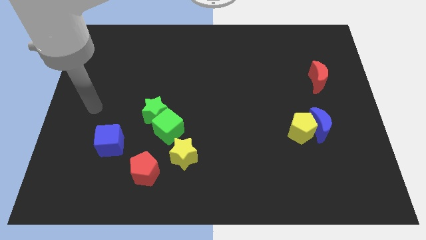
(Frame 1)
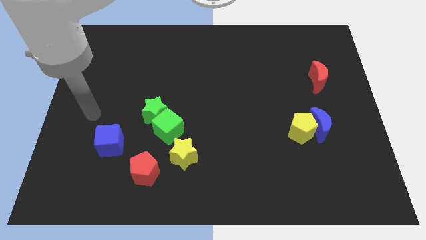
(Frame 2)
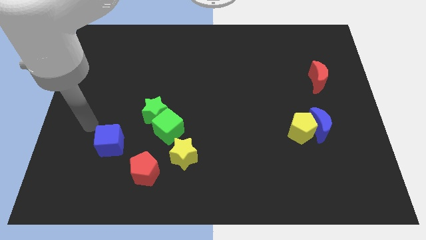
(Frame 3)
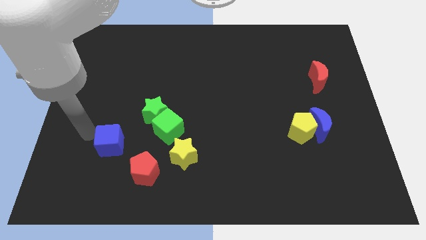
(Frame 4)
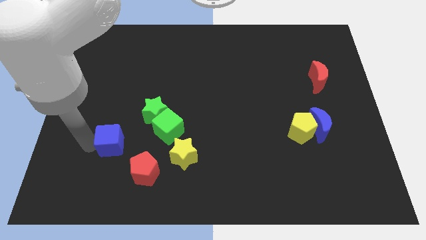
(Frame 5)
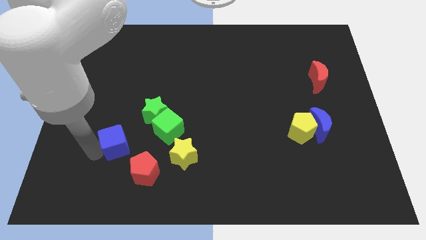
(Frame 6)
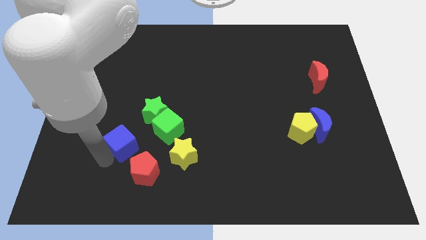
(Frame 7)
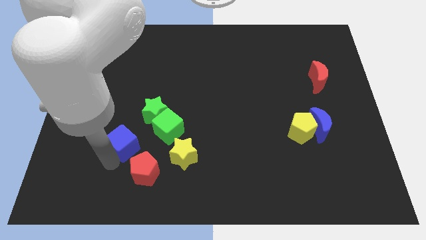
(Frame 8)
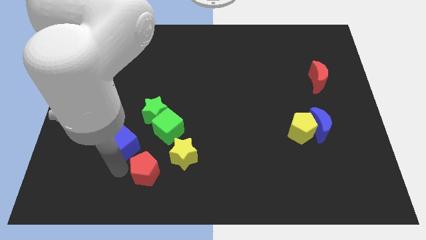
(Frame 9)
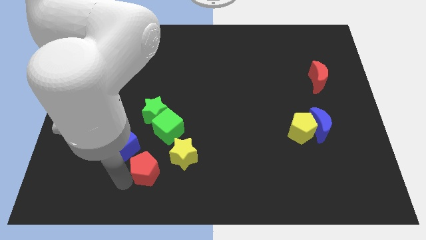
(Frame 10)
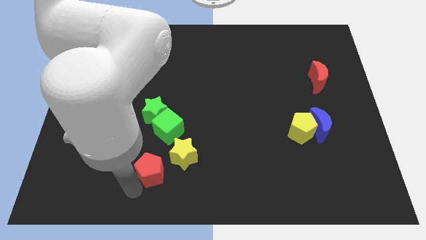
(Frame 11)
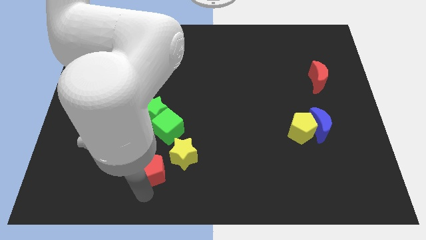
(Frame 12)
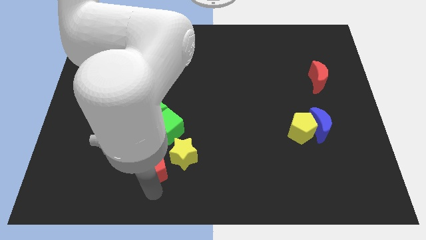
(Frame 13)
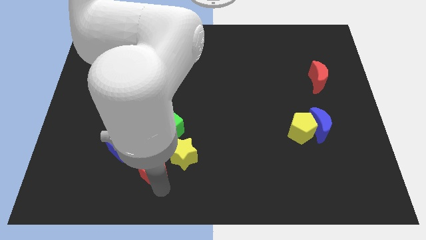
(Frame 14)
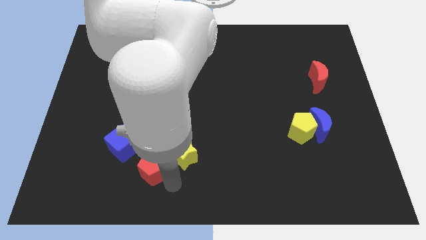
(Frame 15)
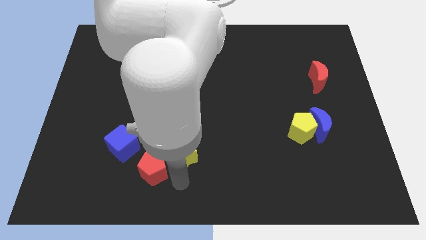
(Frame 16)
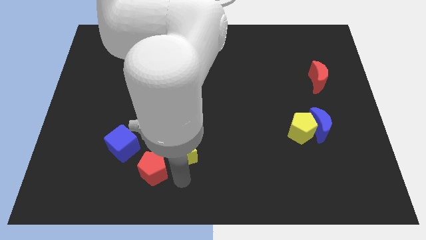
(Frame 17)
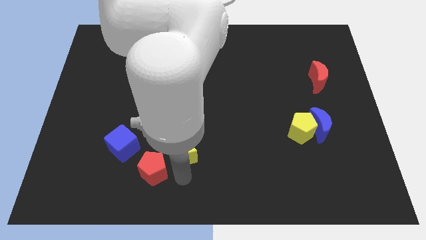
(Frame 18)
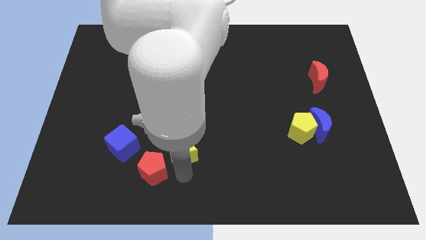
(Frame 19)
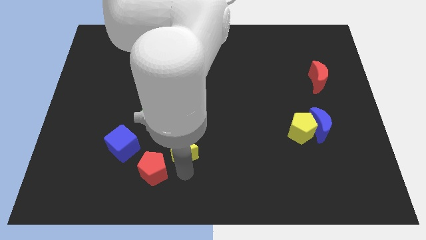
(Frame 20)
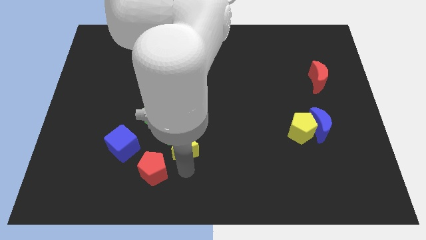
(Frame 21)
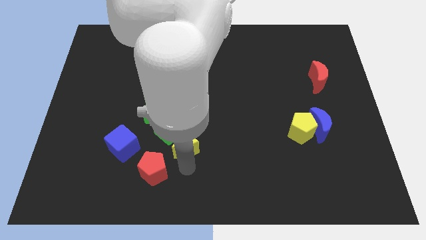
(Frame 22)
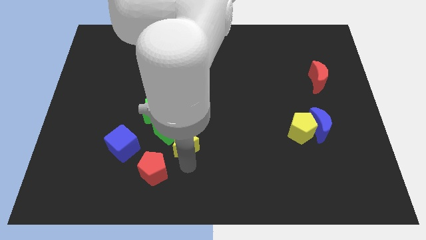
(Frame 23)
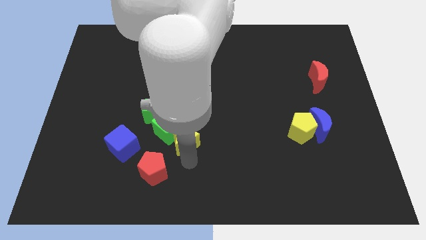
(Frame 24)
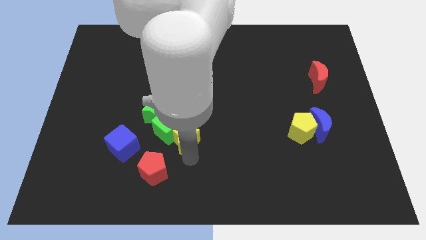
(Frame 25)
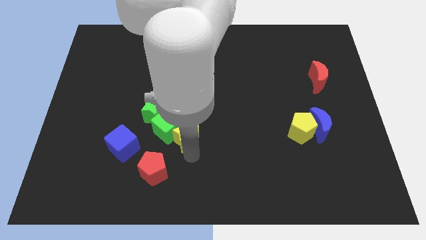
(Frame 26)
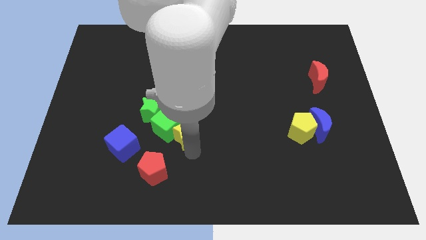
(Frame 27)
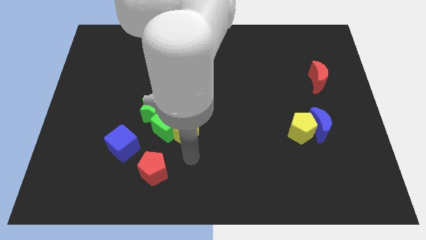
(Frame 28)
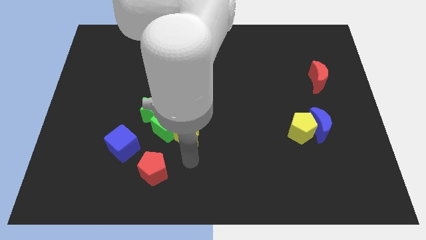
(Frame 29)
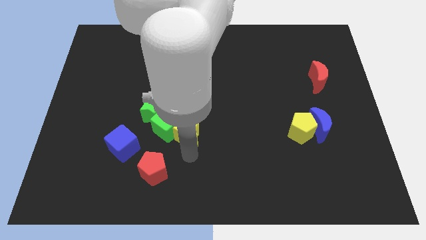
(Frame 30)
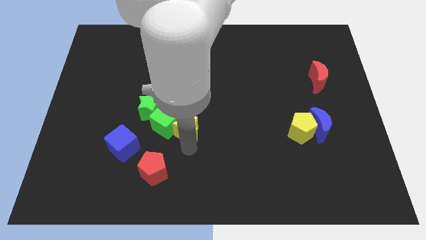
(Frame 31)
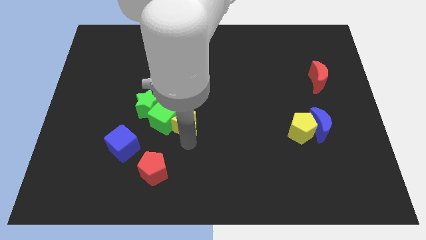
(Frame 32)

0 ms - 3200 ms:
slide the yellow star up a bit

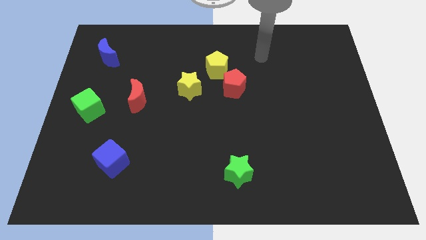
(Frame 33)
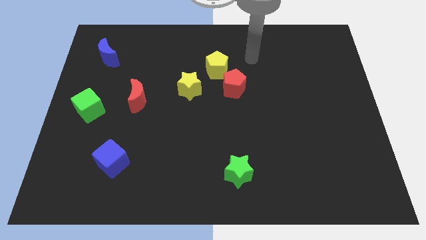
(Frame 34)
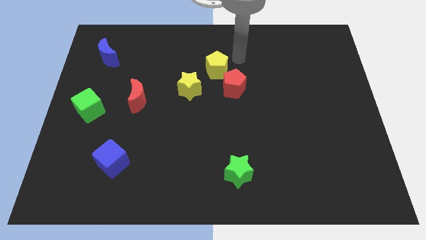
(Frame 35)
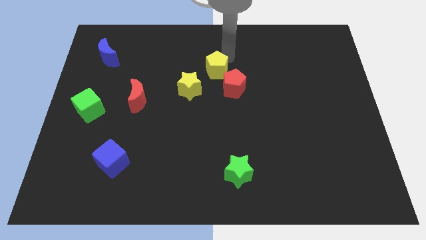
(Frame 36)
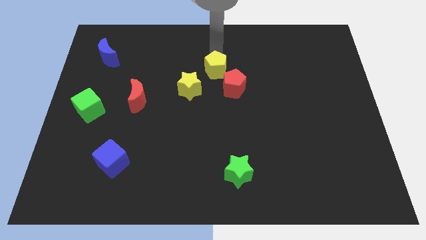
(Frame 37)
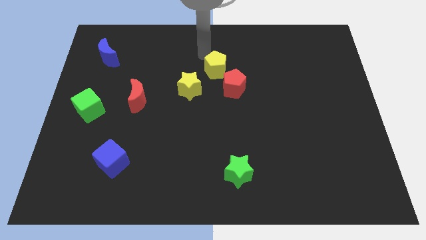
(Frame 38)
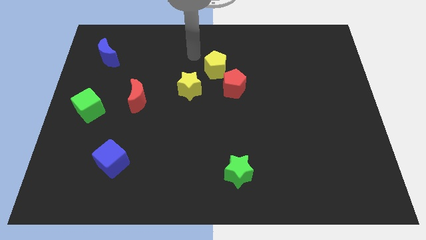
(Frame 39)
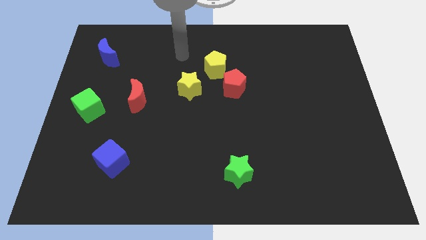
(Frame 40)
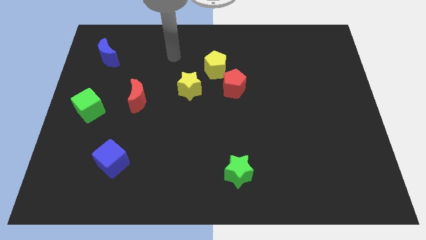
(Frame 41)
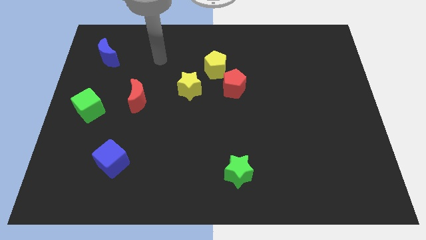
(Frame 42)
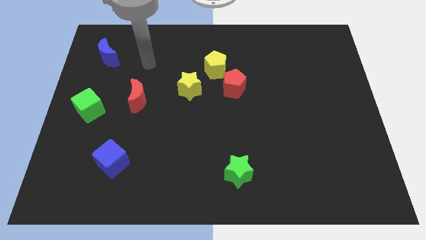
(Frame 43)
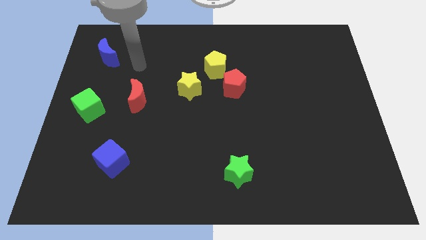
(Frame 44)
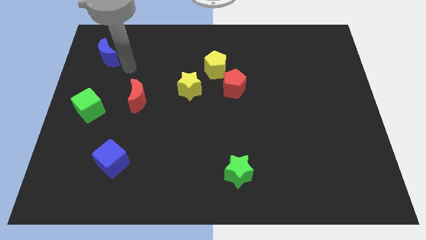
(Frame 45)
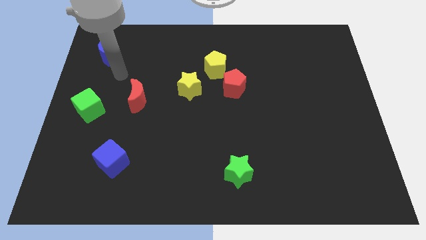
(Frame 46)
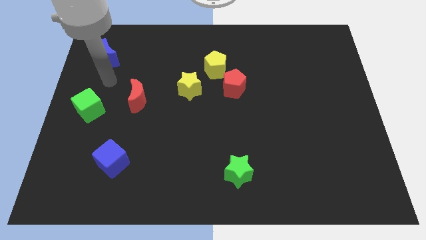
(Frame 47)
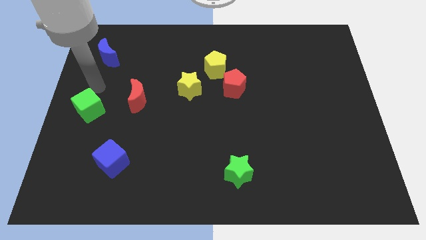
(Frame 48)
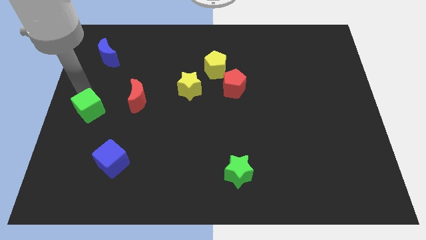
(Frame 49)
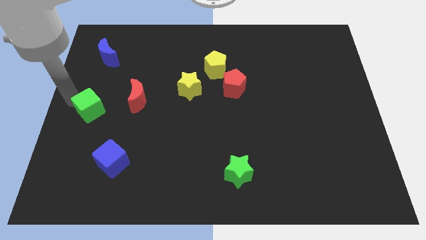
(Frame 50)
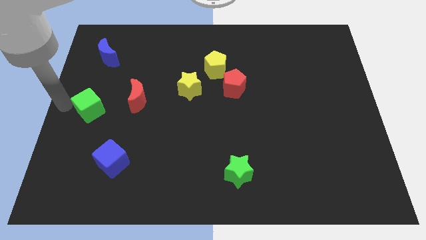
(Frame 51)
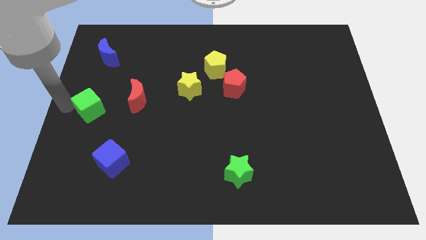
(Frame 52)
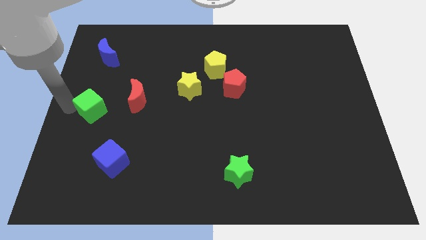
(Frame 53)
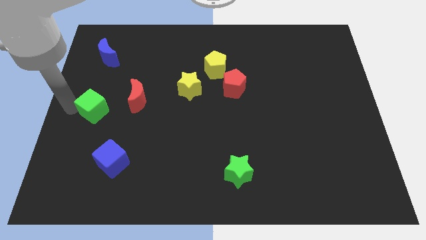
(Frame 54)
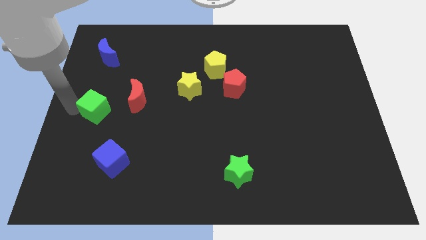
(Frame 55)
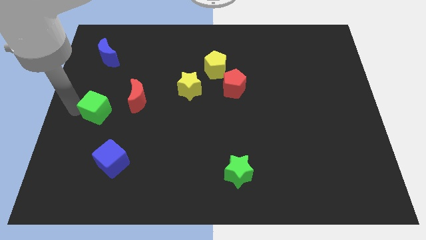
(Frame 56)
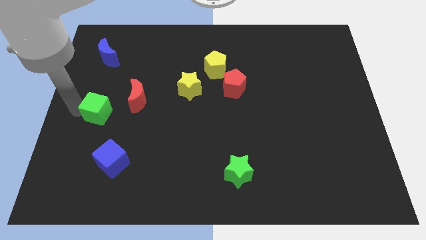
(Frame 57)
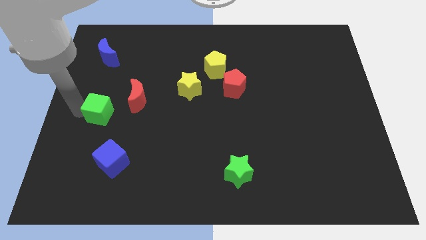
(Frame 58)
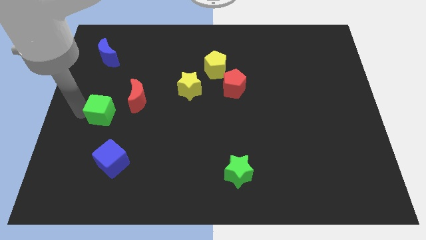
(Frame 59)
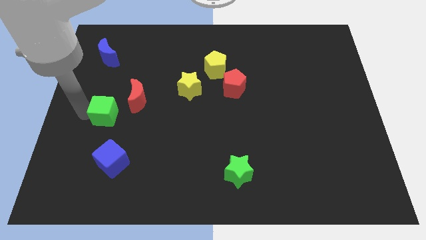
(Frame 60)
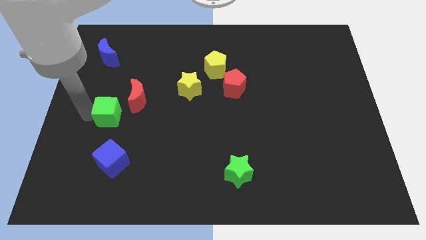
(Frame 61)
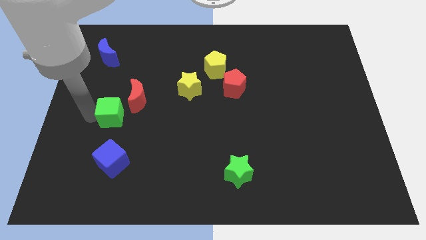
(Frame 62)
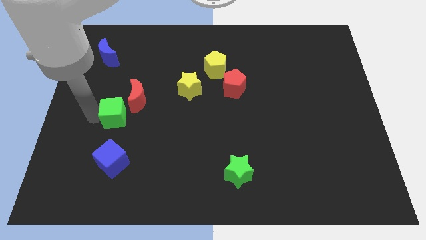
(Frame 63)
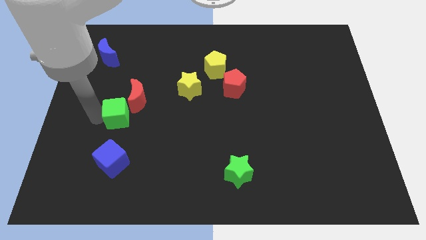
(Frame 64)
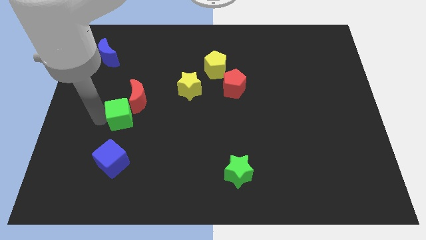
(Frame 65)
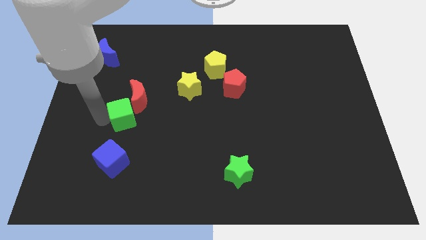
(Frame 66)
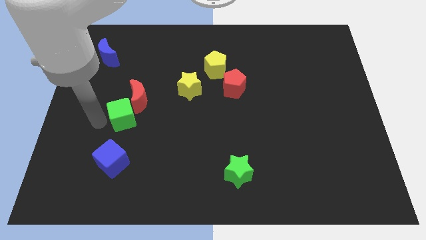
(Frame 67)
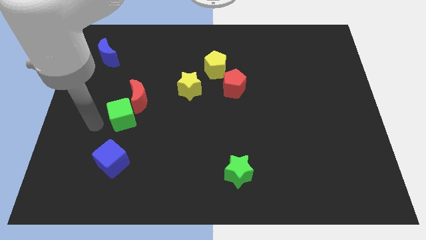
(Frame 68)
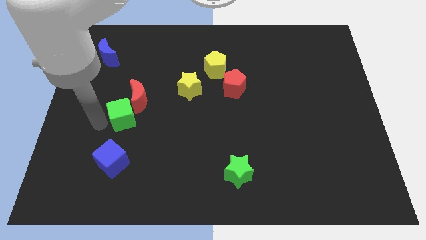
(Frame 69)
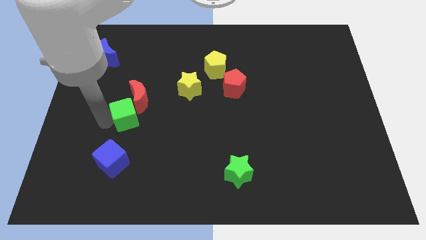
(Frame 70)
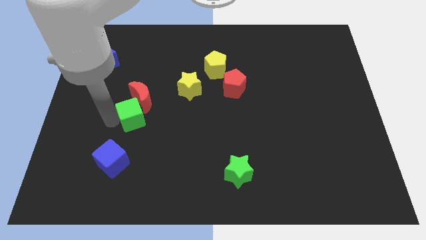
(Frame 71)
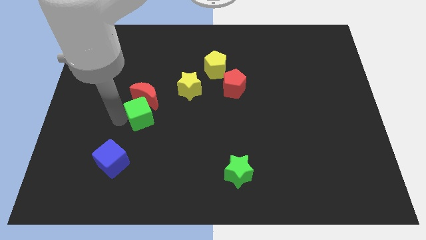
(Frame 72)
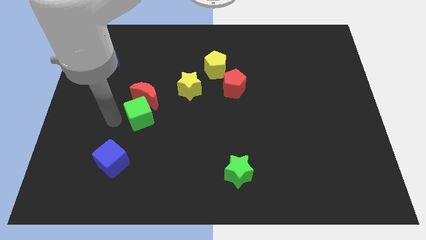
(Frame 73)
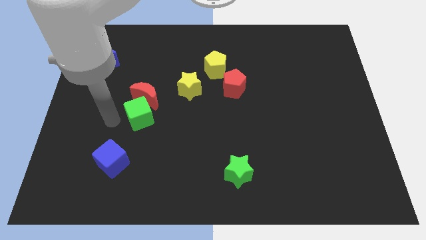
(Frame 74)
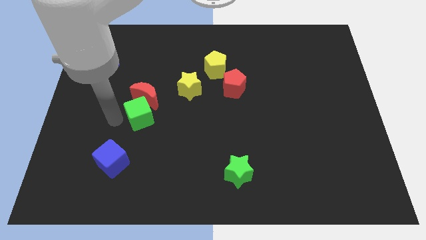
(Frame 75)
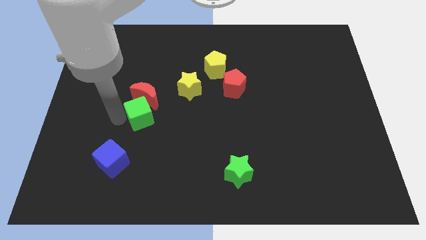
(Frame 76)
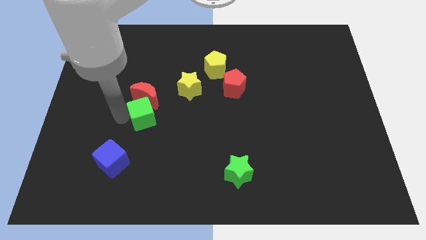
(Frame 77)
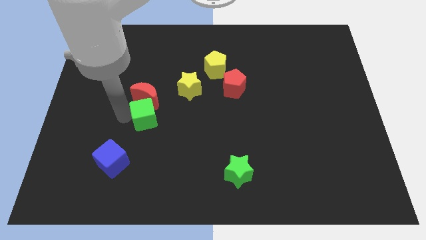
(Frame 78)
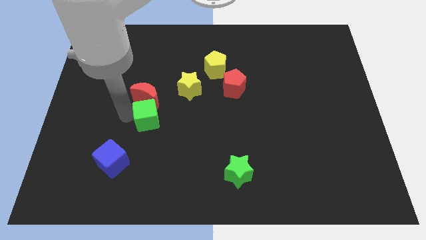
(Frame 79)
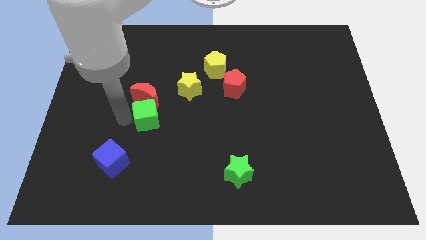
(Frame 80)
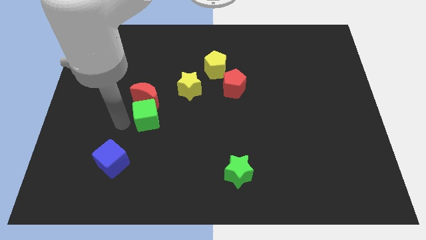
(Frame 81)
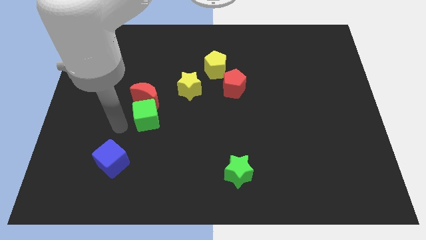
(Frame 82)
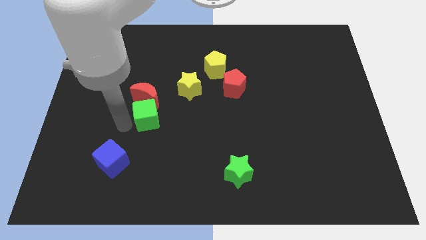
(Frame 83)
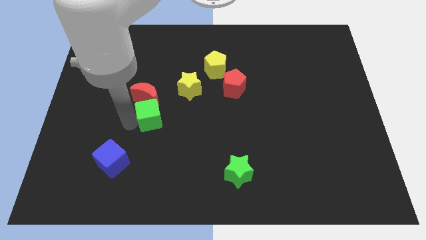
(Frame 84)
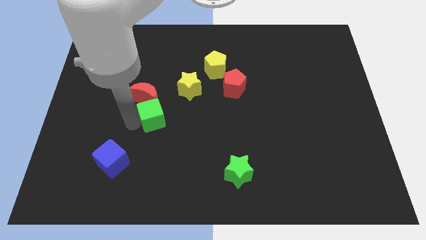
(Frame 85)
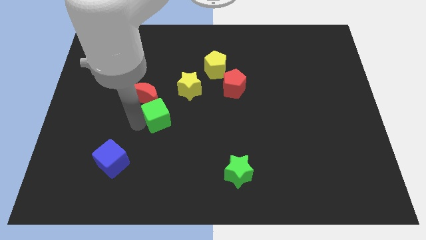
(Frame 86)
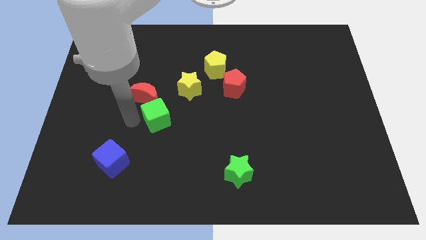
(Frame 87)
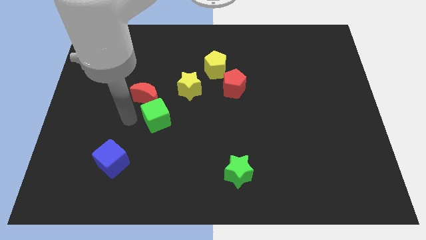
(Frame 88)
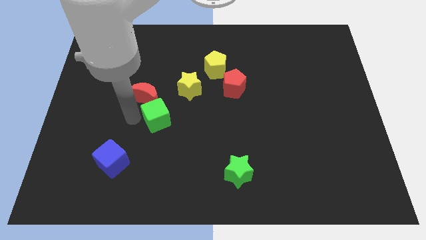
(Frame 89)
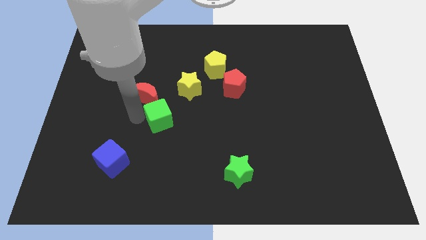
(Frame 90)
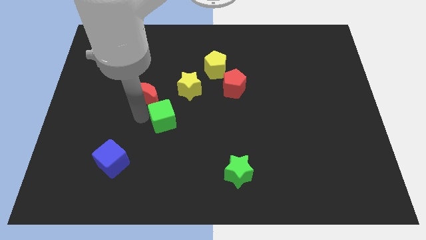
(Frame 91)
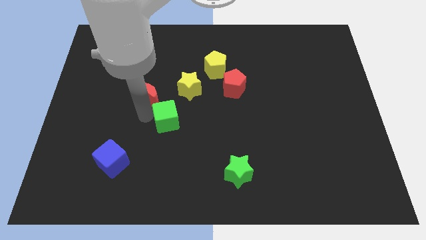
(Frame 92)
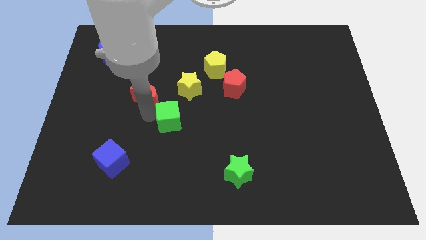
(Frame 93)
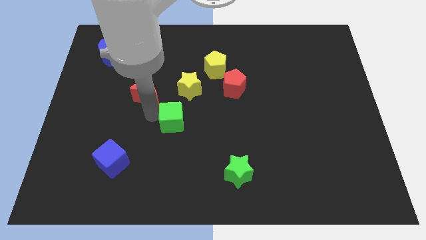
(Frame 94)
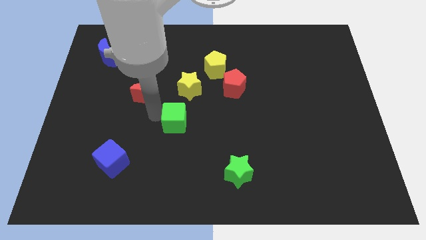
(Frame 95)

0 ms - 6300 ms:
move the green cube to the right
